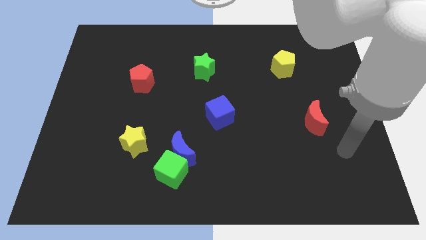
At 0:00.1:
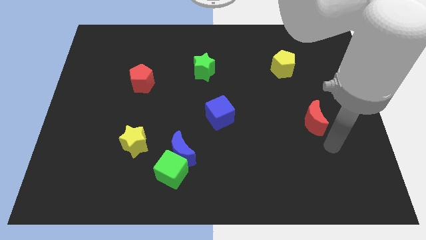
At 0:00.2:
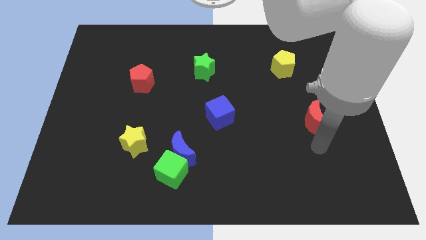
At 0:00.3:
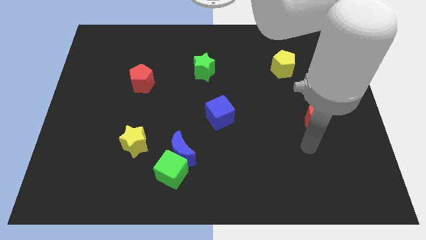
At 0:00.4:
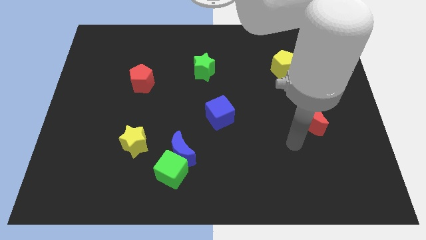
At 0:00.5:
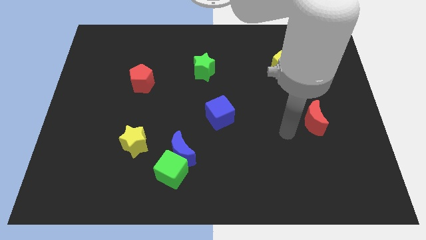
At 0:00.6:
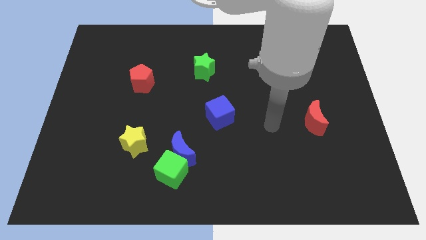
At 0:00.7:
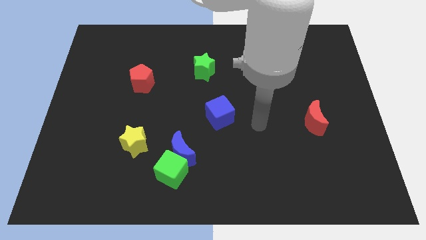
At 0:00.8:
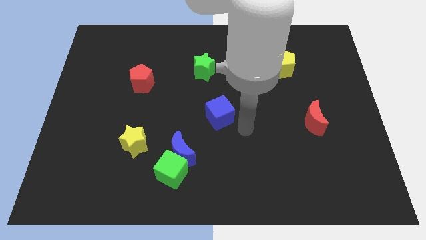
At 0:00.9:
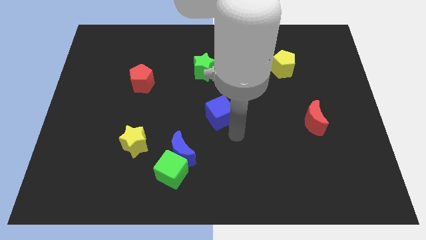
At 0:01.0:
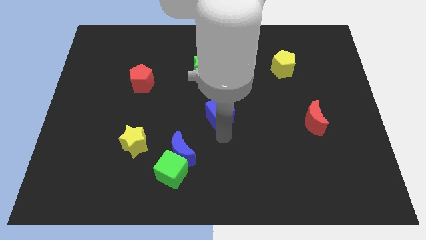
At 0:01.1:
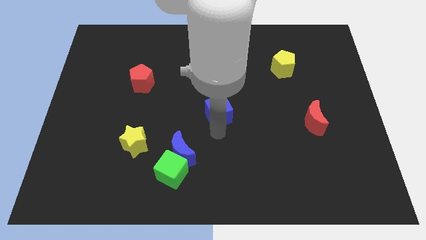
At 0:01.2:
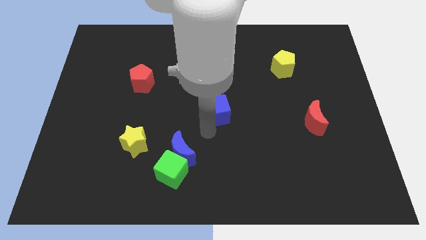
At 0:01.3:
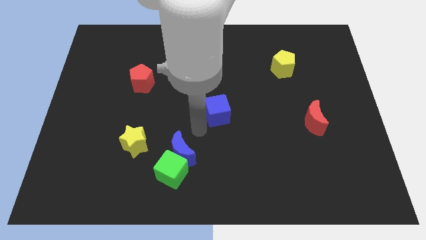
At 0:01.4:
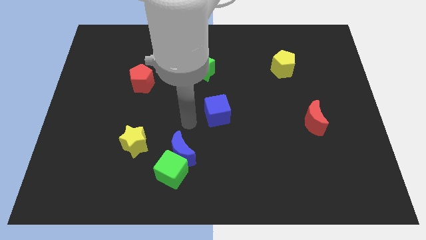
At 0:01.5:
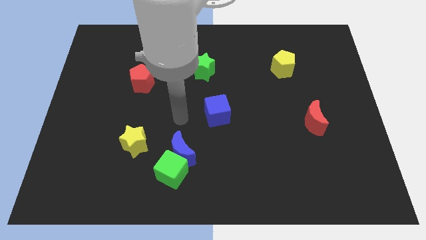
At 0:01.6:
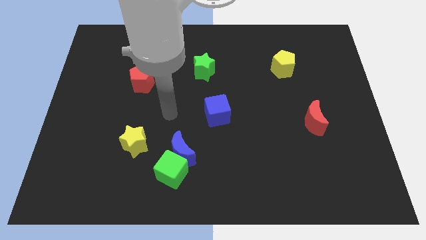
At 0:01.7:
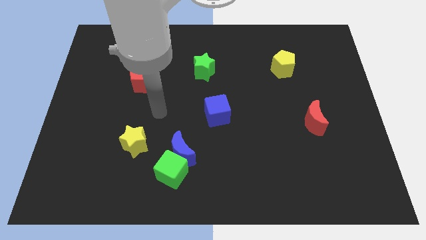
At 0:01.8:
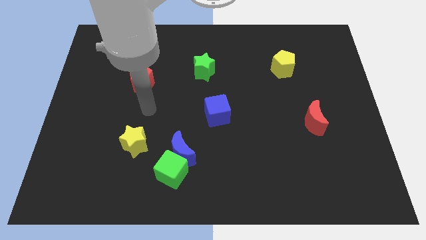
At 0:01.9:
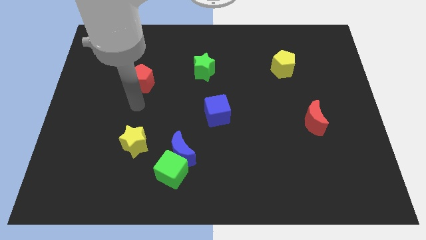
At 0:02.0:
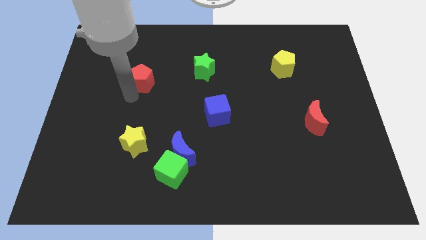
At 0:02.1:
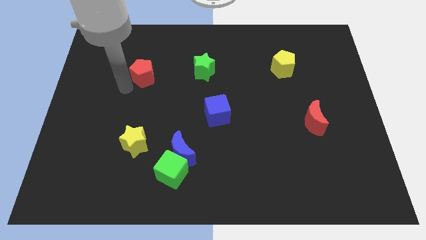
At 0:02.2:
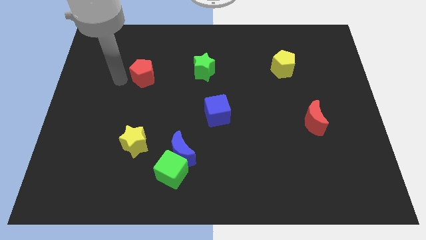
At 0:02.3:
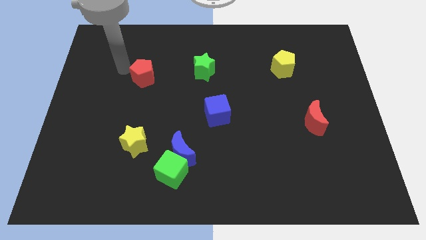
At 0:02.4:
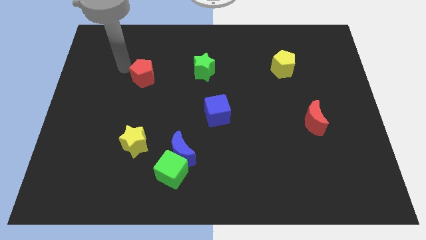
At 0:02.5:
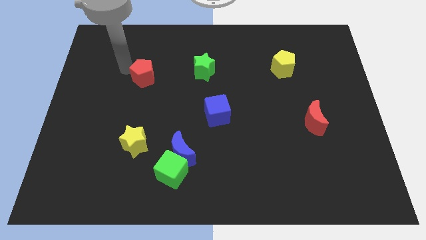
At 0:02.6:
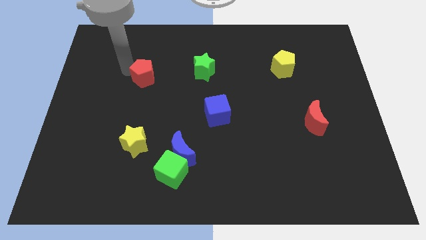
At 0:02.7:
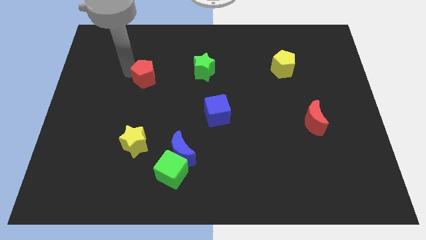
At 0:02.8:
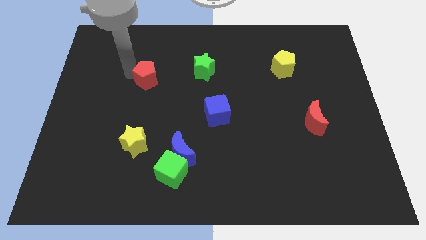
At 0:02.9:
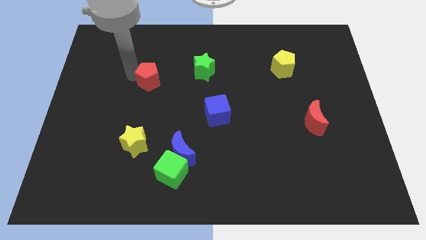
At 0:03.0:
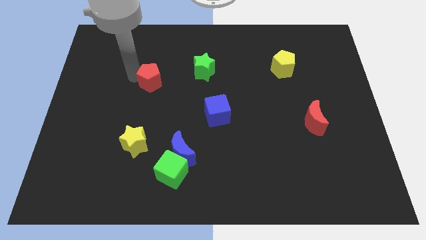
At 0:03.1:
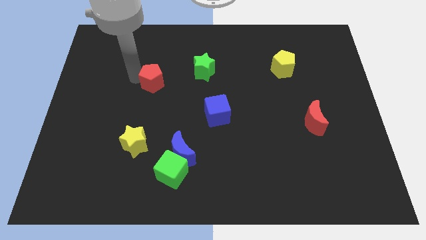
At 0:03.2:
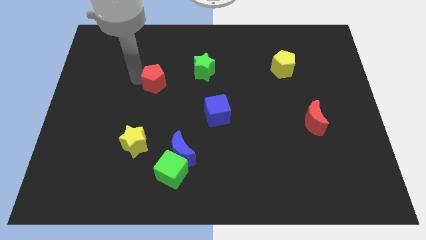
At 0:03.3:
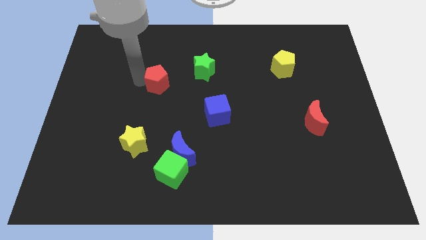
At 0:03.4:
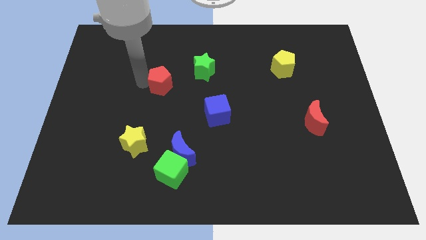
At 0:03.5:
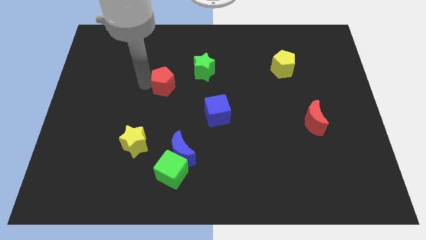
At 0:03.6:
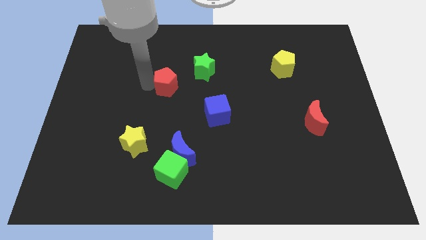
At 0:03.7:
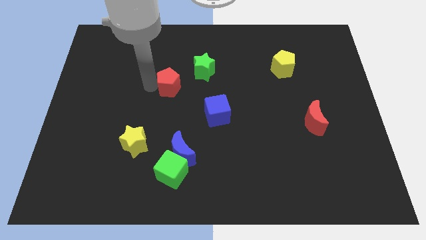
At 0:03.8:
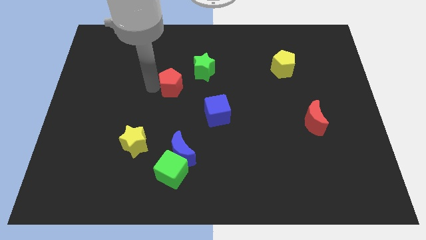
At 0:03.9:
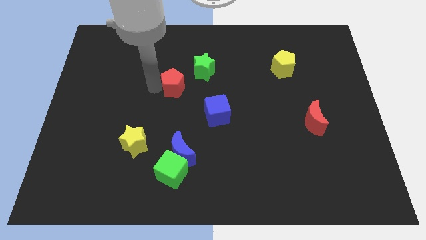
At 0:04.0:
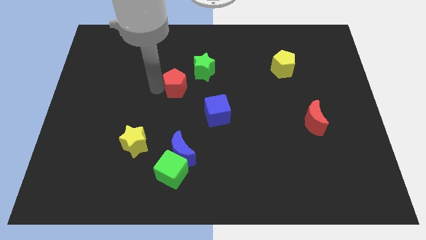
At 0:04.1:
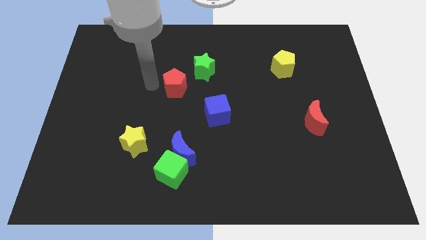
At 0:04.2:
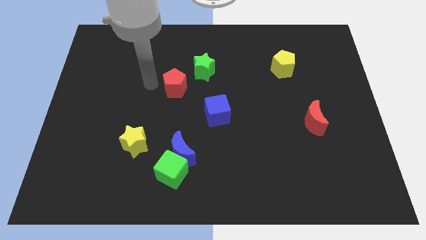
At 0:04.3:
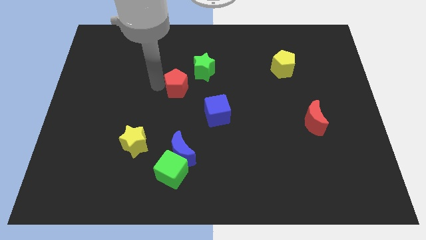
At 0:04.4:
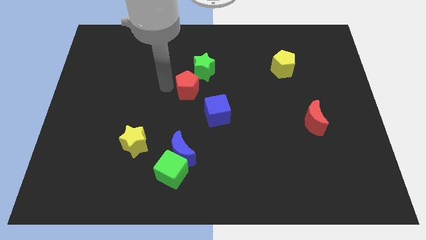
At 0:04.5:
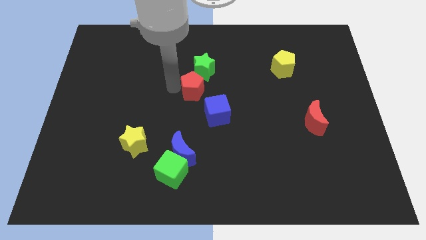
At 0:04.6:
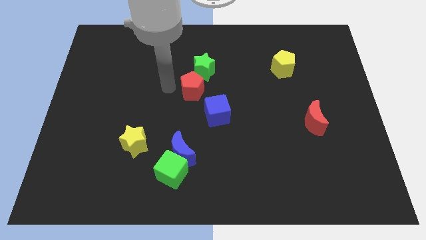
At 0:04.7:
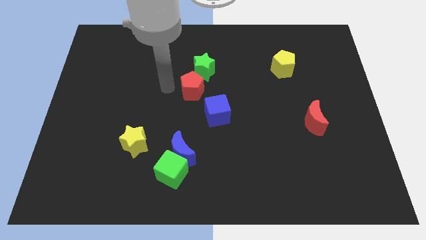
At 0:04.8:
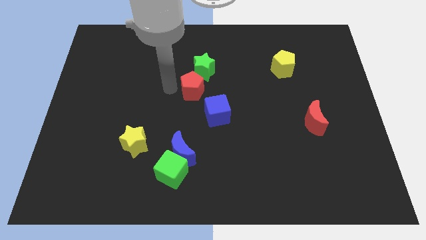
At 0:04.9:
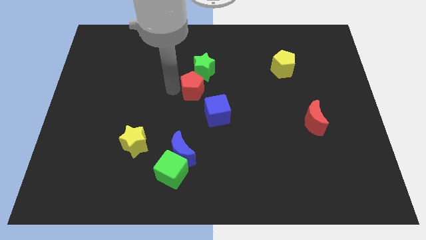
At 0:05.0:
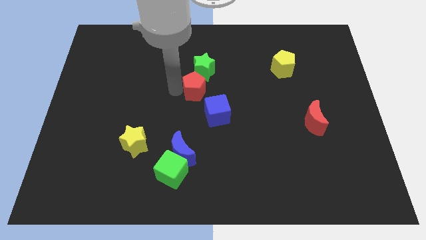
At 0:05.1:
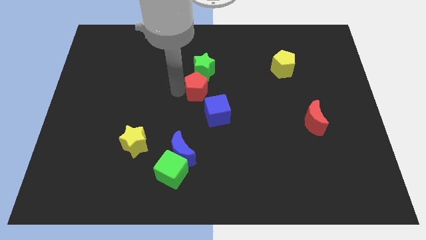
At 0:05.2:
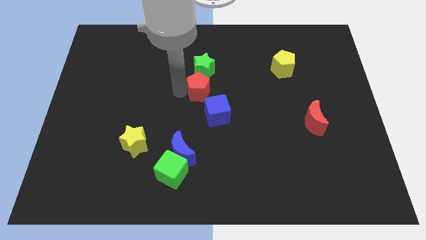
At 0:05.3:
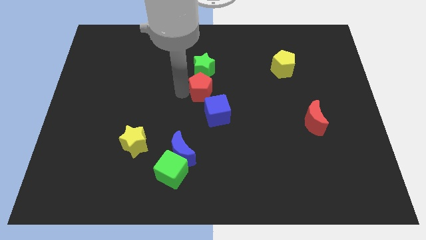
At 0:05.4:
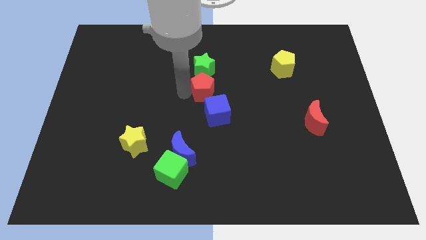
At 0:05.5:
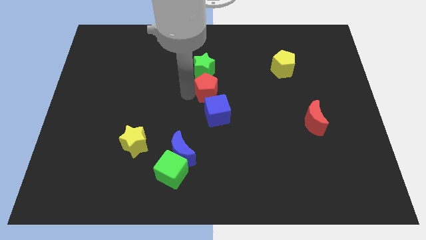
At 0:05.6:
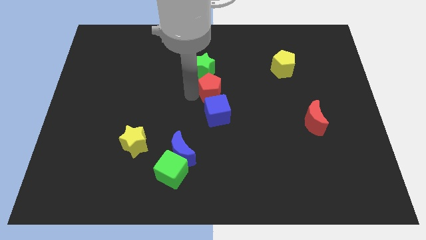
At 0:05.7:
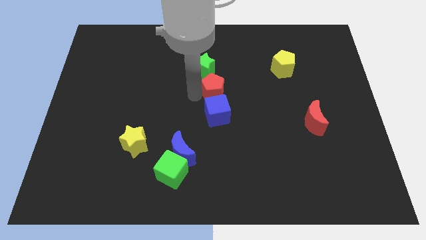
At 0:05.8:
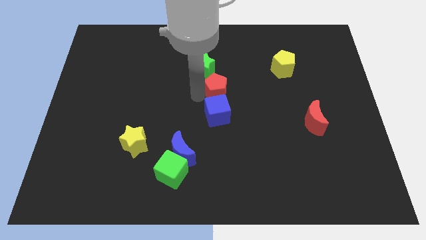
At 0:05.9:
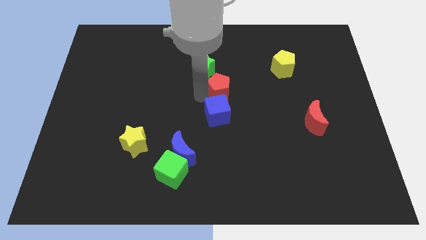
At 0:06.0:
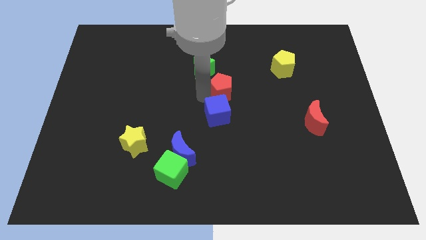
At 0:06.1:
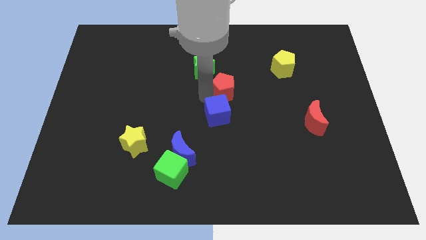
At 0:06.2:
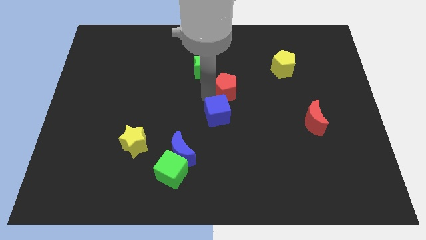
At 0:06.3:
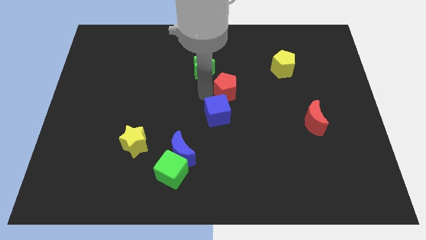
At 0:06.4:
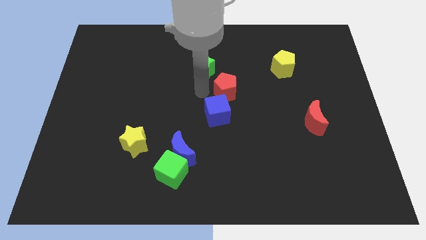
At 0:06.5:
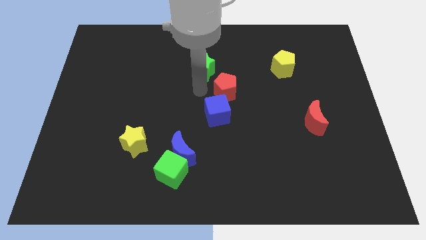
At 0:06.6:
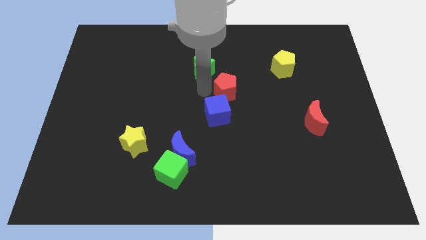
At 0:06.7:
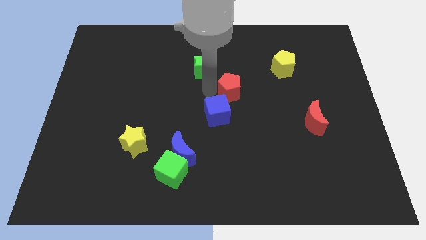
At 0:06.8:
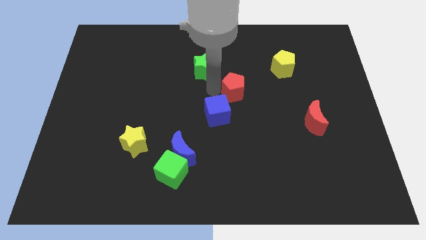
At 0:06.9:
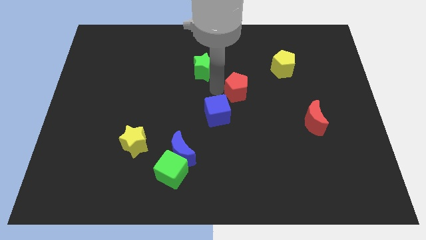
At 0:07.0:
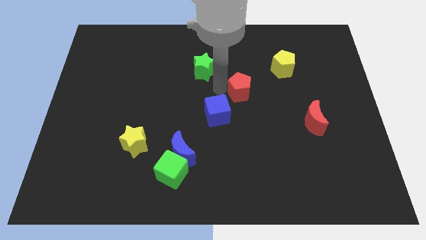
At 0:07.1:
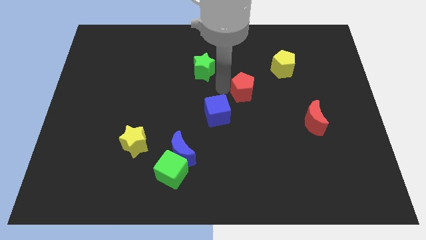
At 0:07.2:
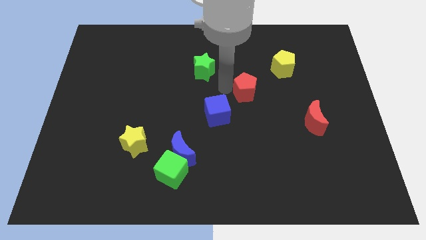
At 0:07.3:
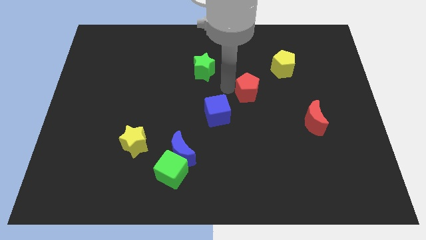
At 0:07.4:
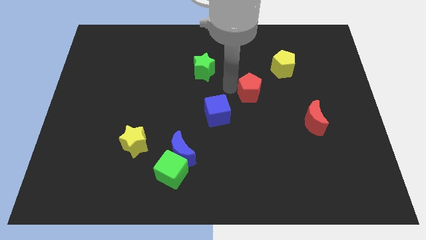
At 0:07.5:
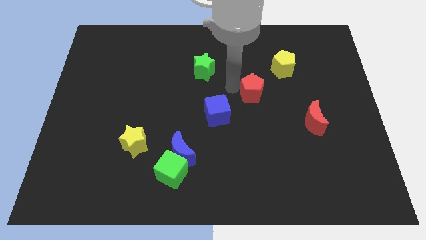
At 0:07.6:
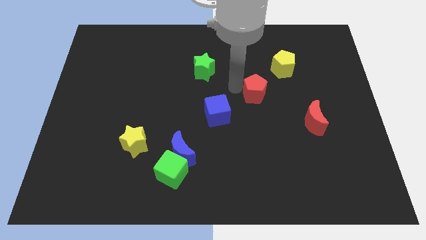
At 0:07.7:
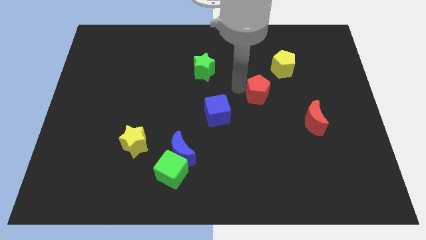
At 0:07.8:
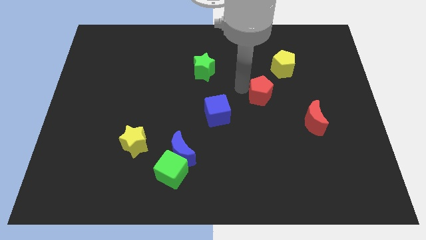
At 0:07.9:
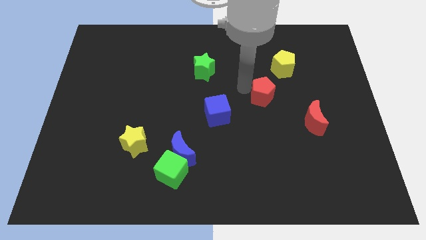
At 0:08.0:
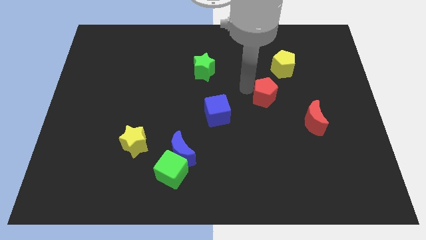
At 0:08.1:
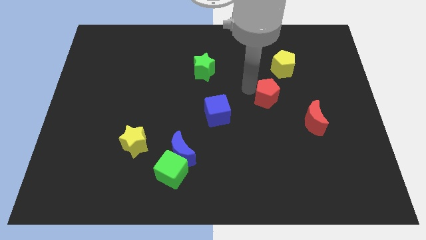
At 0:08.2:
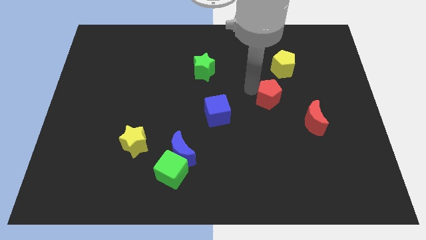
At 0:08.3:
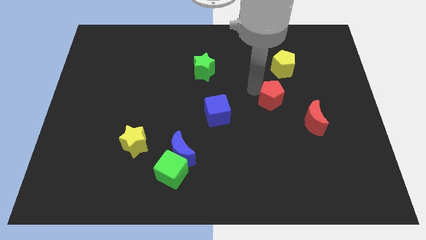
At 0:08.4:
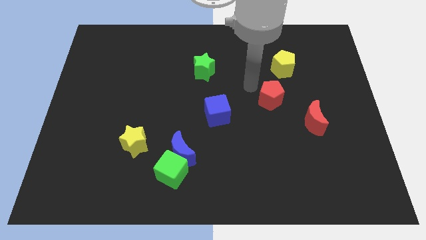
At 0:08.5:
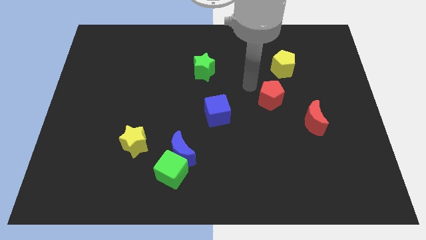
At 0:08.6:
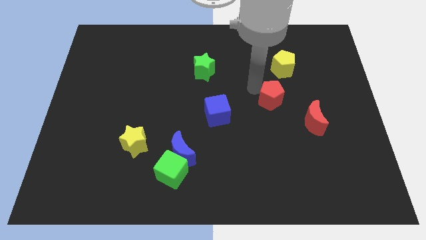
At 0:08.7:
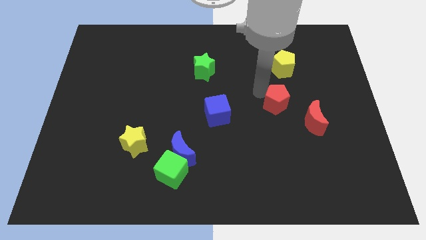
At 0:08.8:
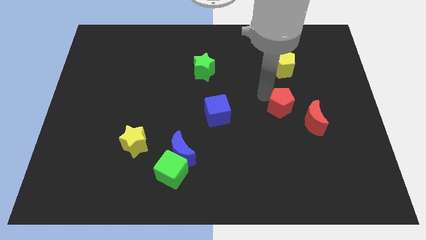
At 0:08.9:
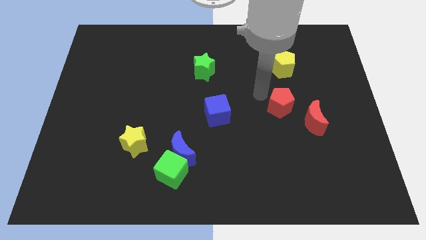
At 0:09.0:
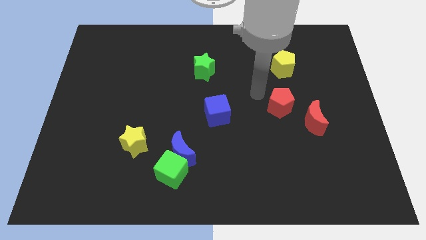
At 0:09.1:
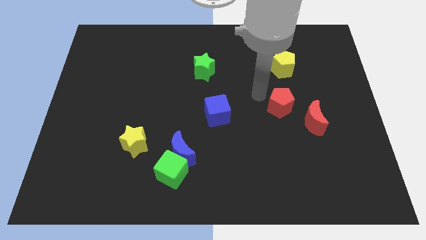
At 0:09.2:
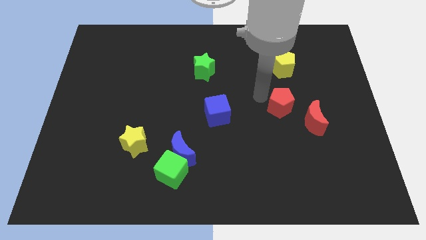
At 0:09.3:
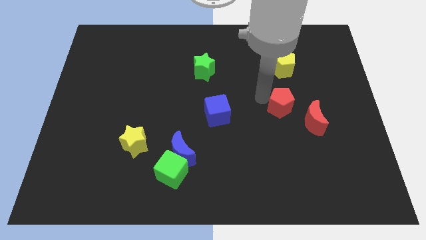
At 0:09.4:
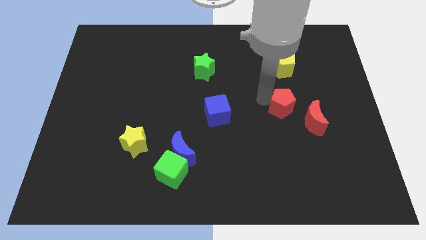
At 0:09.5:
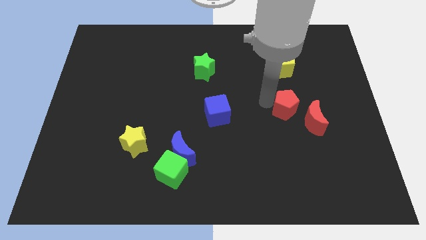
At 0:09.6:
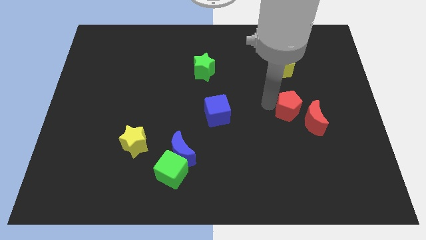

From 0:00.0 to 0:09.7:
move the red pentagon to the red moon
